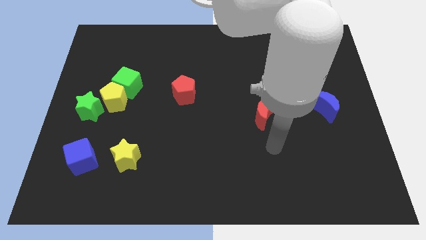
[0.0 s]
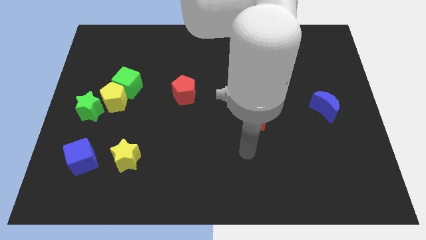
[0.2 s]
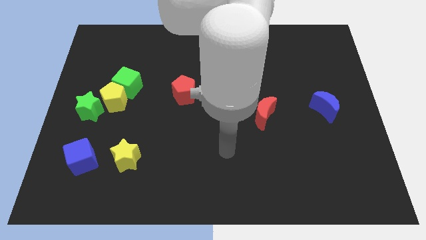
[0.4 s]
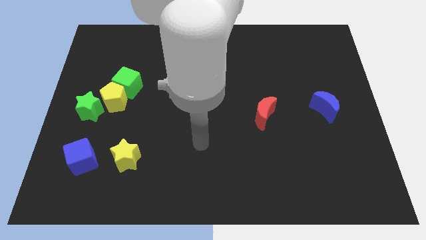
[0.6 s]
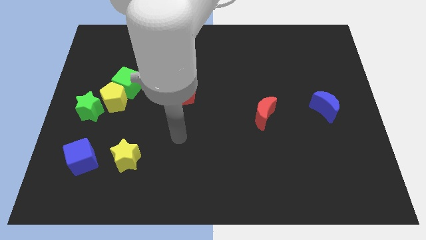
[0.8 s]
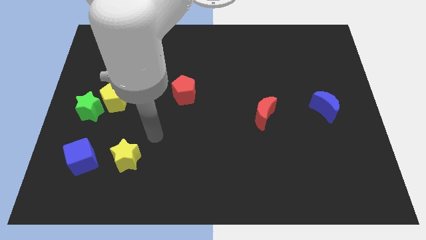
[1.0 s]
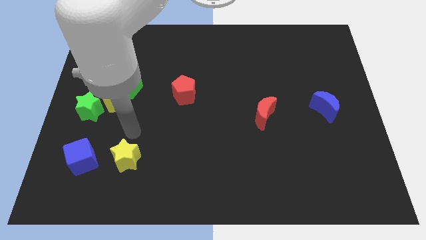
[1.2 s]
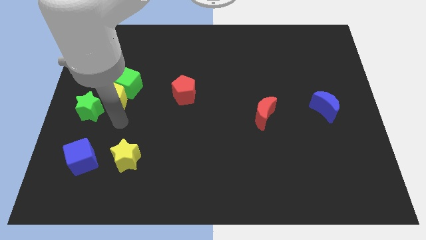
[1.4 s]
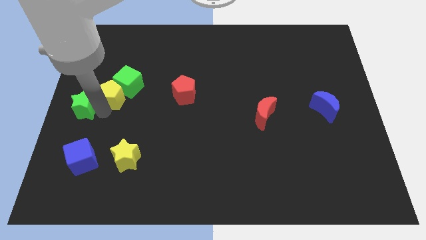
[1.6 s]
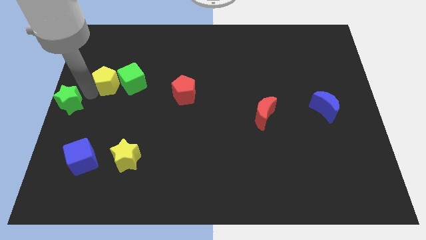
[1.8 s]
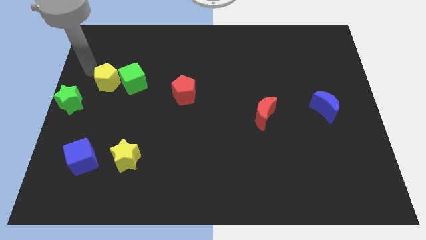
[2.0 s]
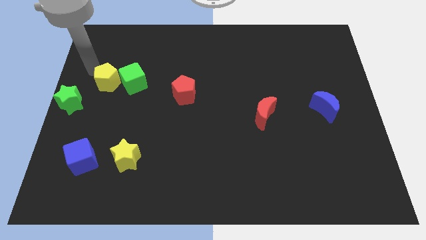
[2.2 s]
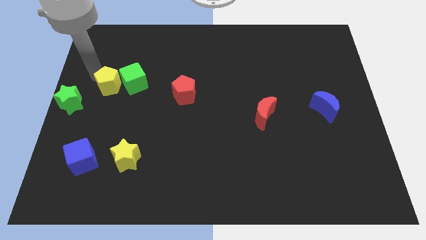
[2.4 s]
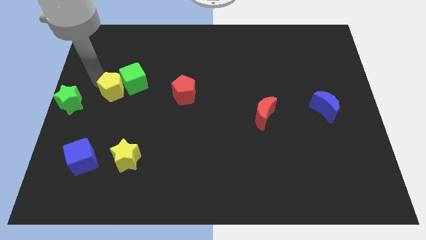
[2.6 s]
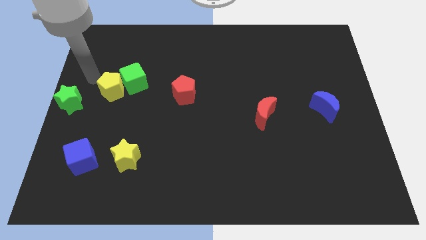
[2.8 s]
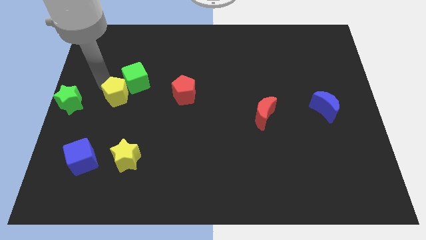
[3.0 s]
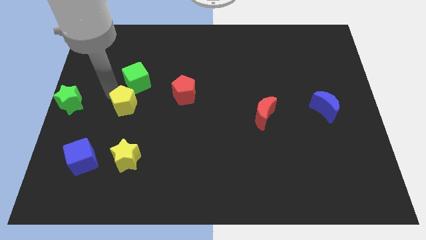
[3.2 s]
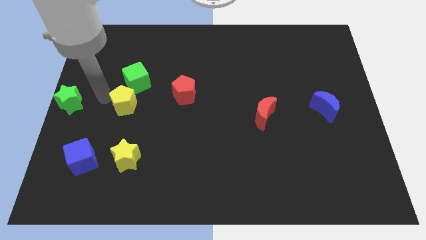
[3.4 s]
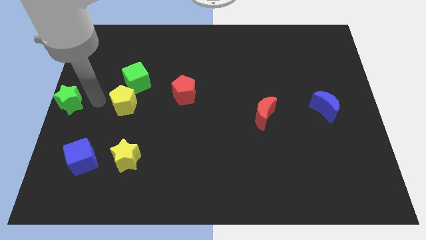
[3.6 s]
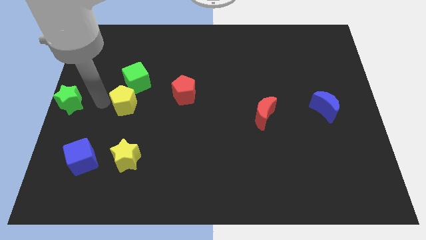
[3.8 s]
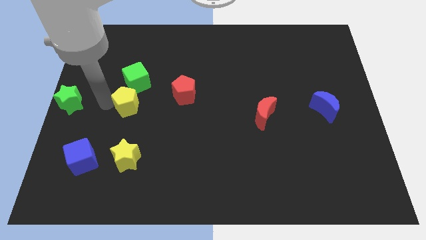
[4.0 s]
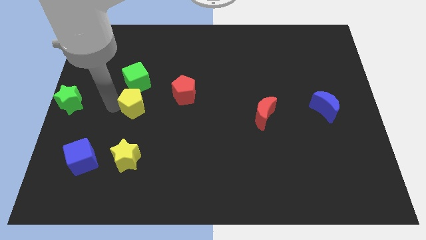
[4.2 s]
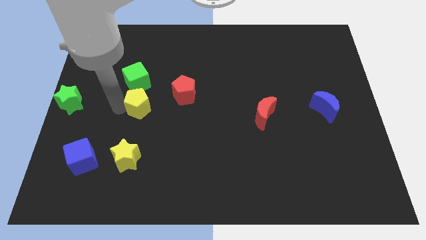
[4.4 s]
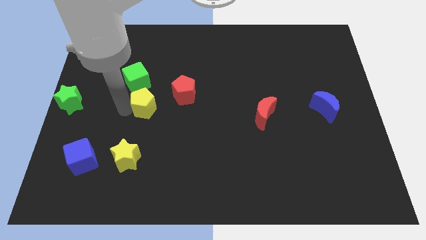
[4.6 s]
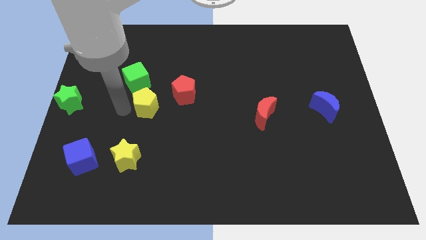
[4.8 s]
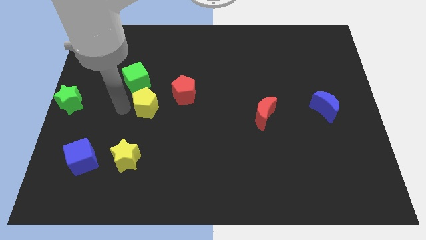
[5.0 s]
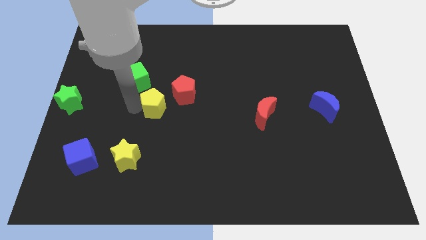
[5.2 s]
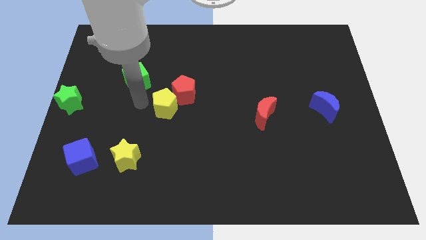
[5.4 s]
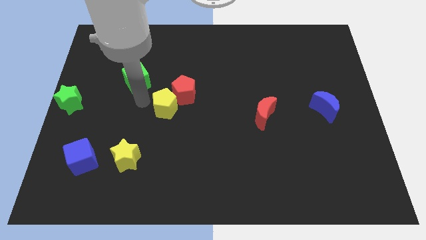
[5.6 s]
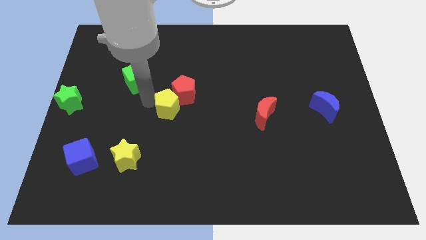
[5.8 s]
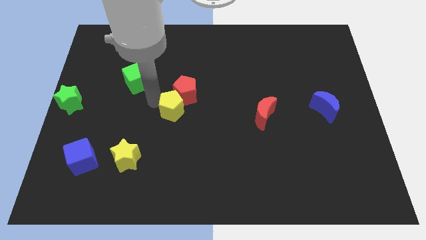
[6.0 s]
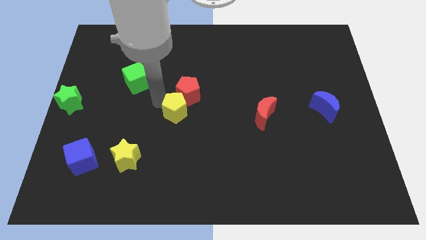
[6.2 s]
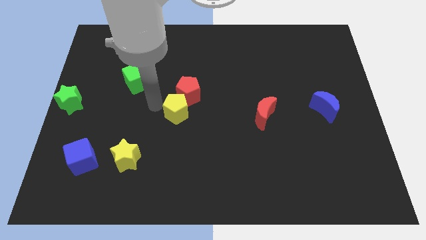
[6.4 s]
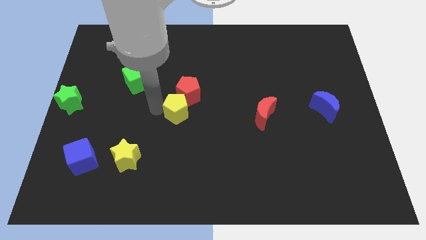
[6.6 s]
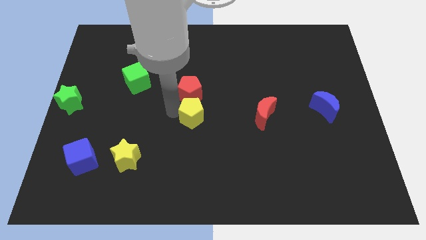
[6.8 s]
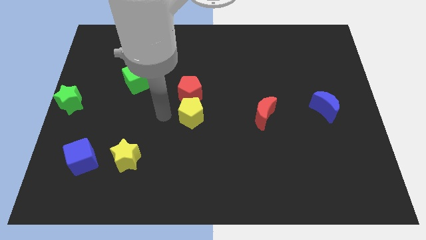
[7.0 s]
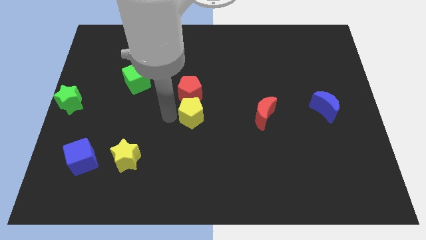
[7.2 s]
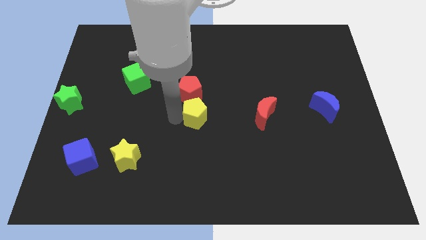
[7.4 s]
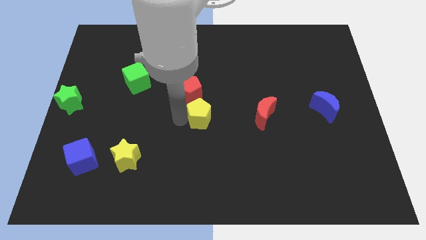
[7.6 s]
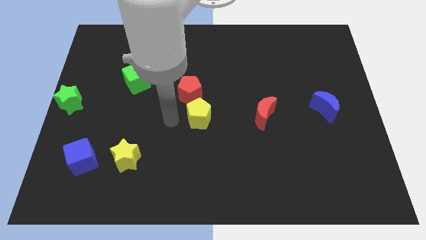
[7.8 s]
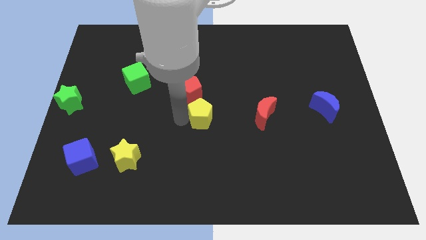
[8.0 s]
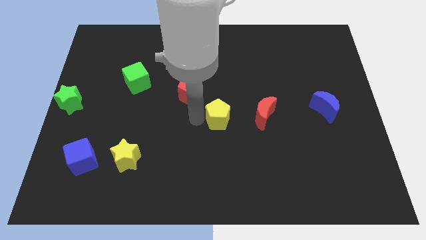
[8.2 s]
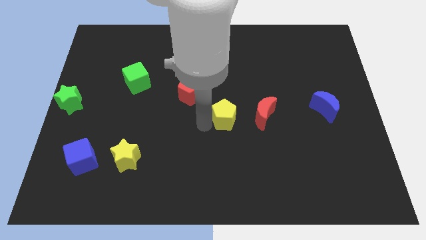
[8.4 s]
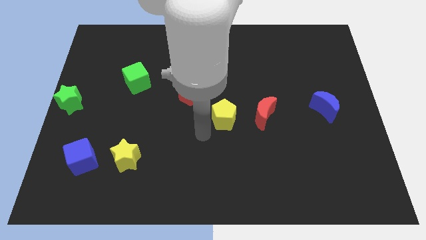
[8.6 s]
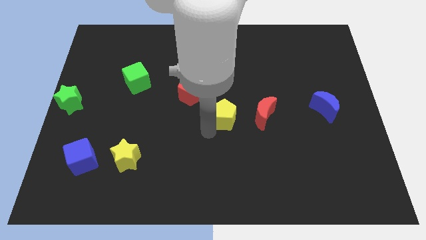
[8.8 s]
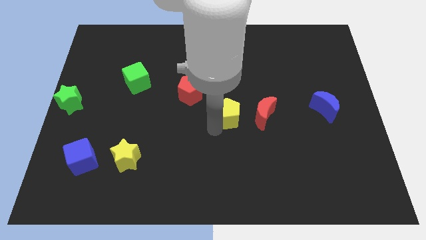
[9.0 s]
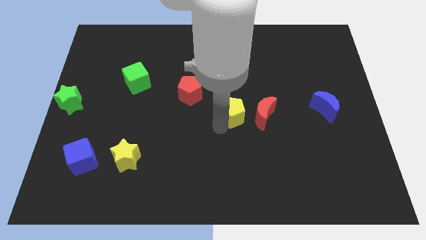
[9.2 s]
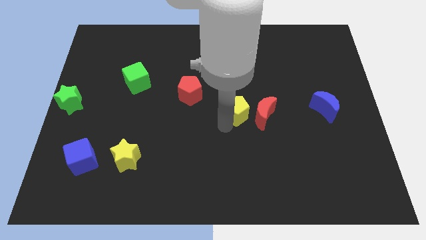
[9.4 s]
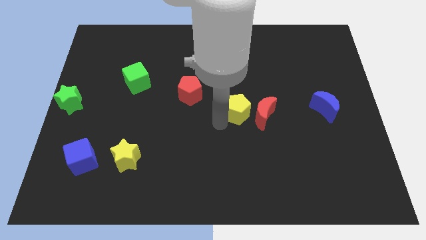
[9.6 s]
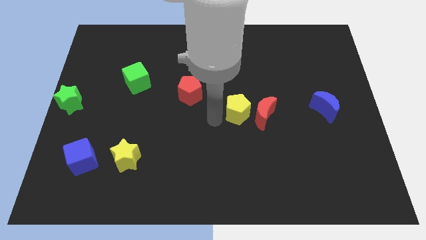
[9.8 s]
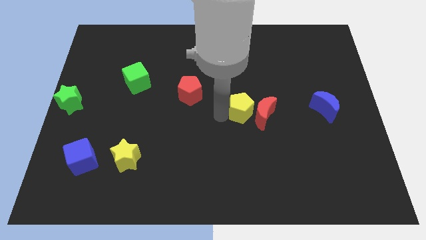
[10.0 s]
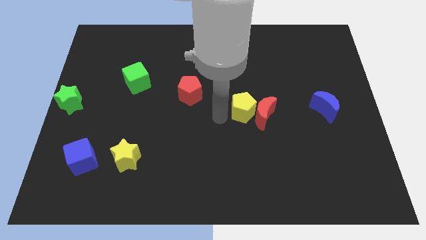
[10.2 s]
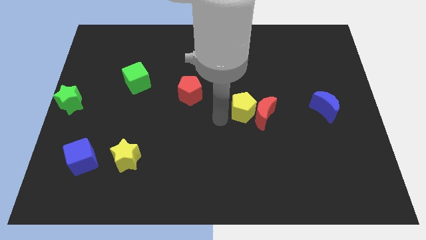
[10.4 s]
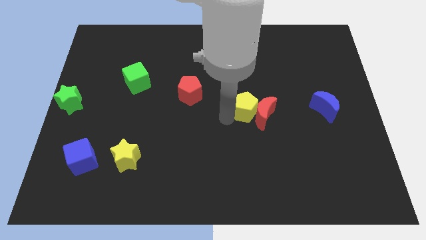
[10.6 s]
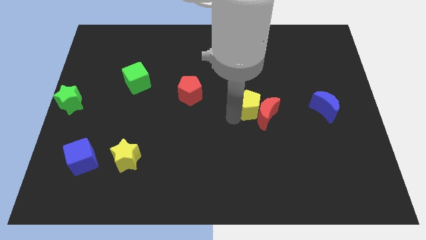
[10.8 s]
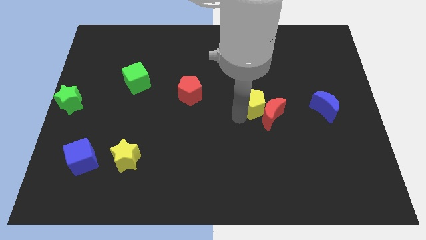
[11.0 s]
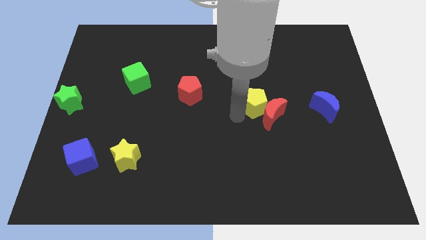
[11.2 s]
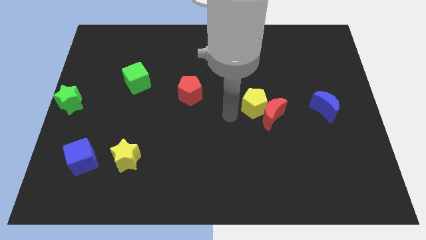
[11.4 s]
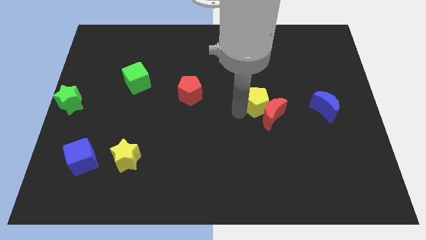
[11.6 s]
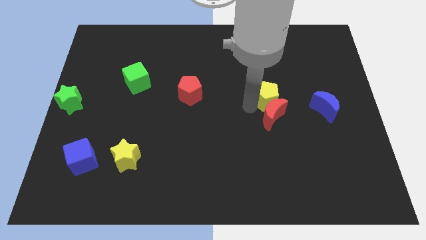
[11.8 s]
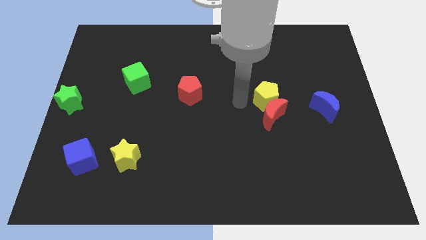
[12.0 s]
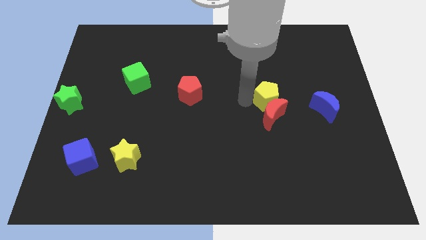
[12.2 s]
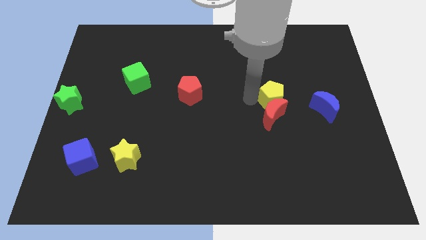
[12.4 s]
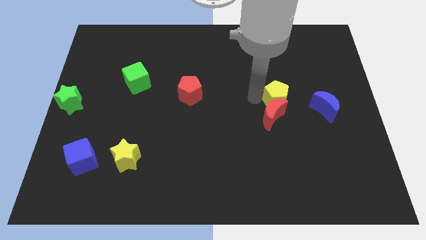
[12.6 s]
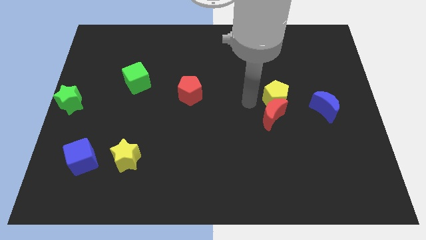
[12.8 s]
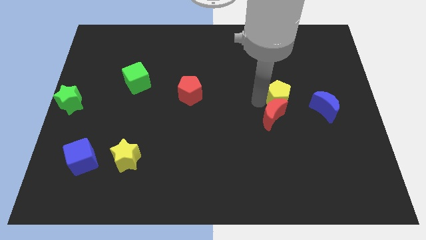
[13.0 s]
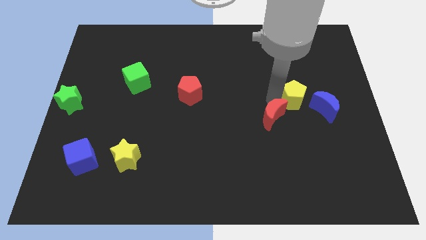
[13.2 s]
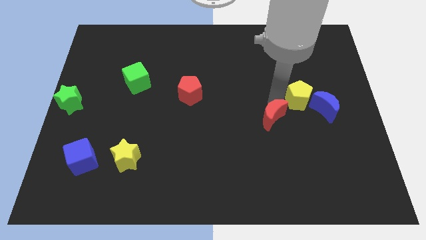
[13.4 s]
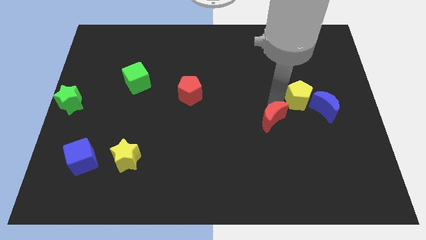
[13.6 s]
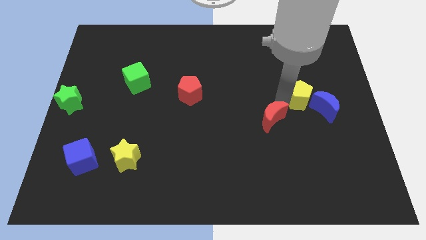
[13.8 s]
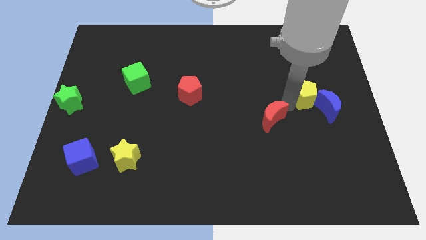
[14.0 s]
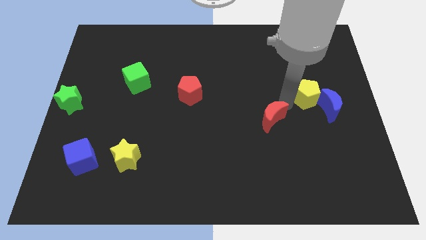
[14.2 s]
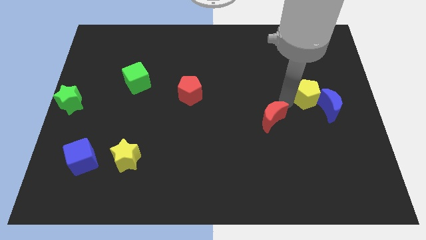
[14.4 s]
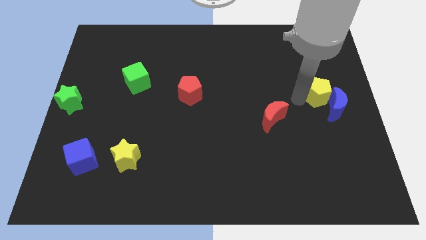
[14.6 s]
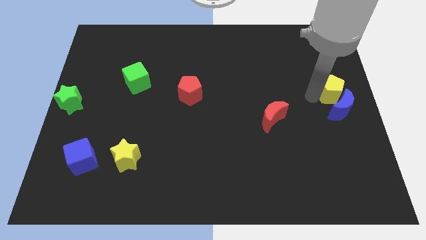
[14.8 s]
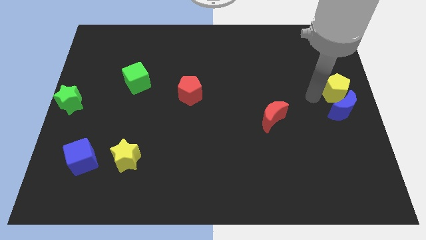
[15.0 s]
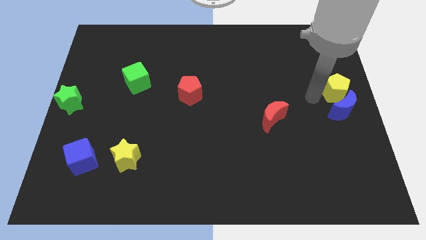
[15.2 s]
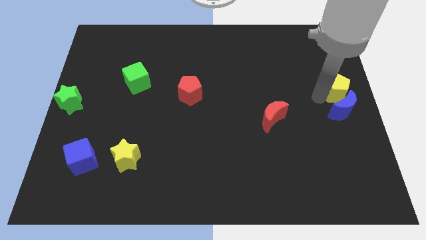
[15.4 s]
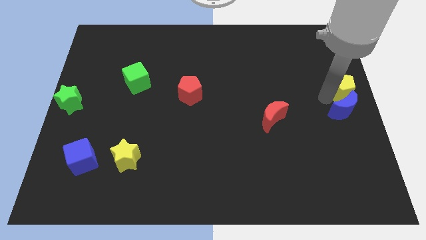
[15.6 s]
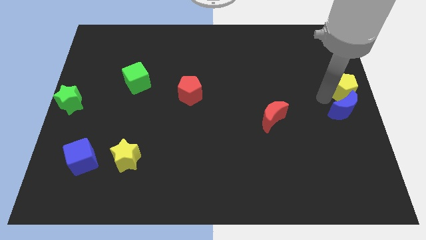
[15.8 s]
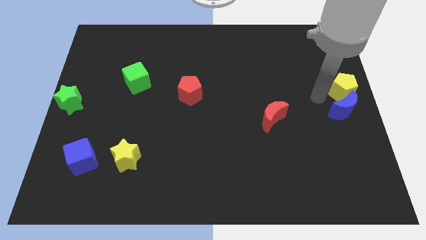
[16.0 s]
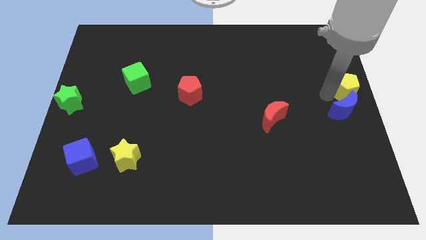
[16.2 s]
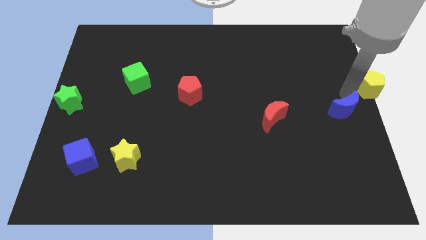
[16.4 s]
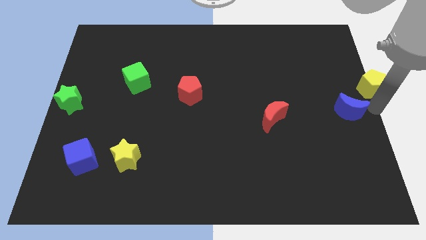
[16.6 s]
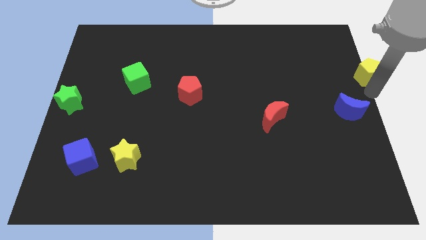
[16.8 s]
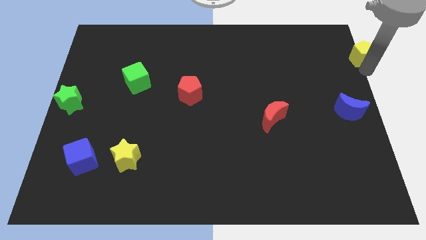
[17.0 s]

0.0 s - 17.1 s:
move the yellow pentagon to the top right of the board
